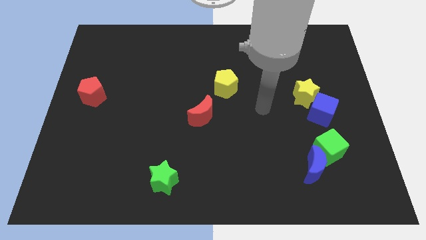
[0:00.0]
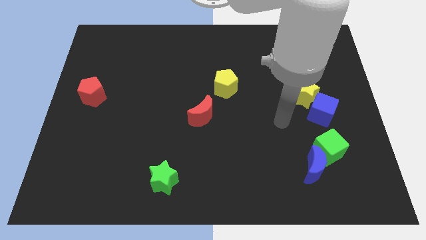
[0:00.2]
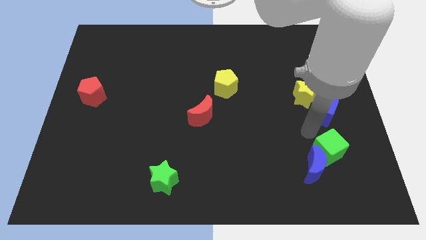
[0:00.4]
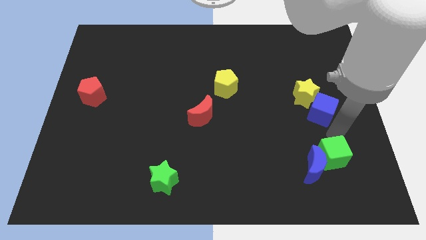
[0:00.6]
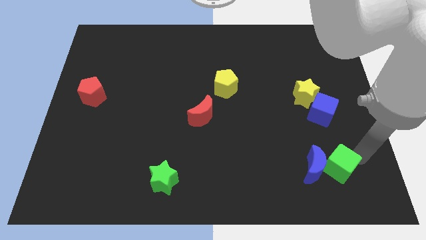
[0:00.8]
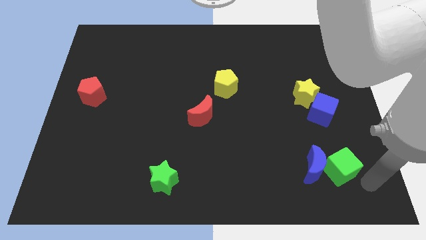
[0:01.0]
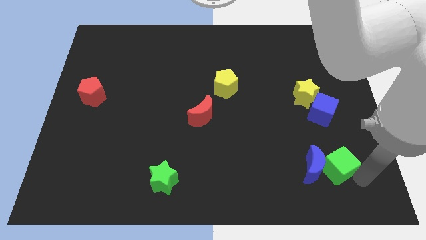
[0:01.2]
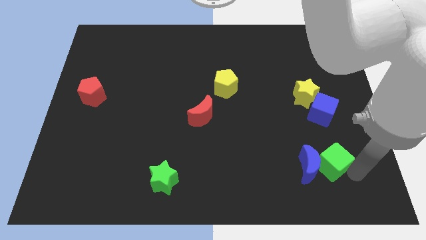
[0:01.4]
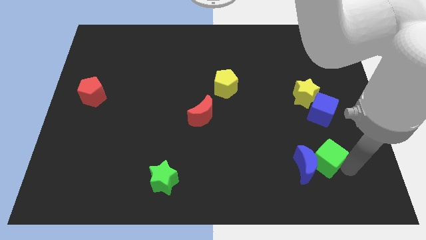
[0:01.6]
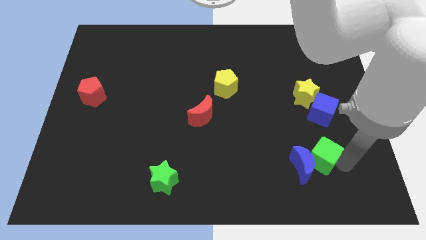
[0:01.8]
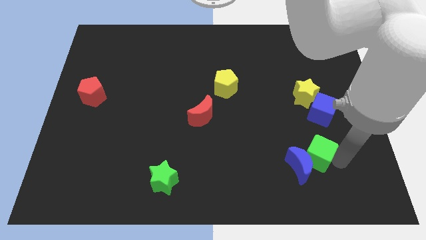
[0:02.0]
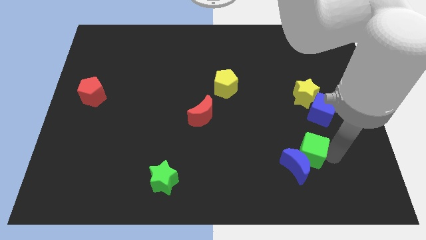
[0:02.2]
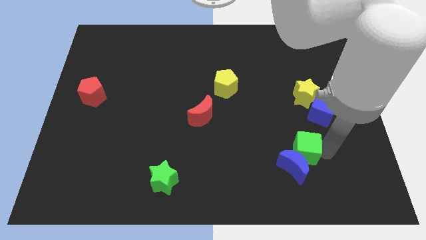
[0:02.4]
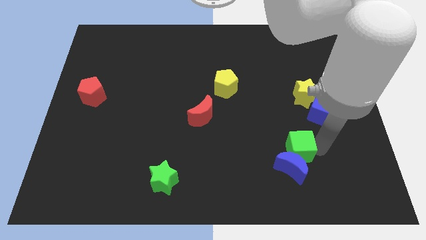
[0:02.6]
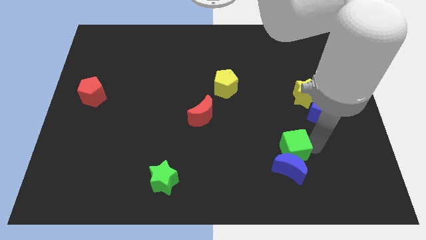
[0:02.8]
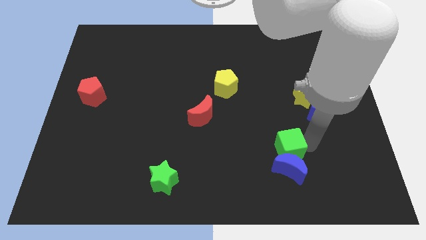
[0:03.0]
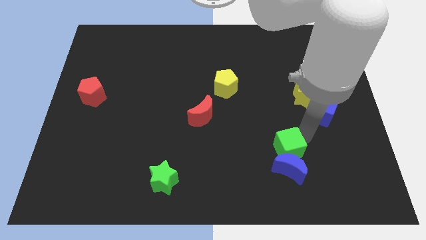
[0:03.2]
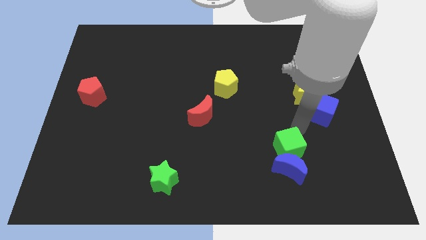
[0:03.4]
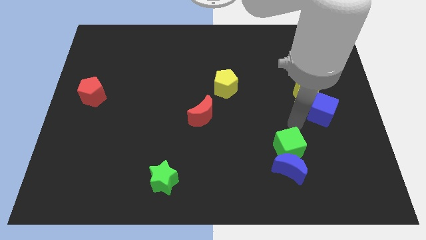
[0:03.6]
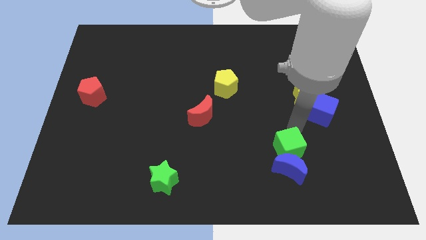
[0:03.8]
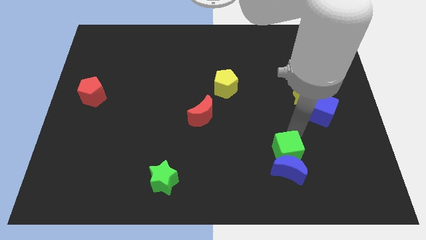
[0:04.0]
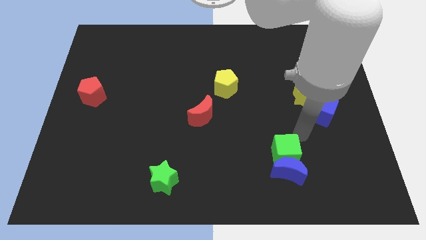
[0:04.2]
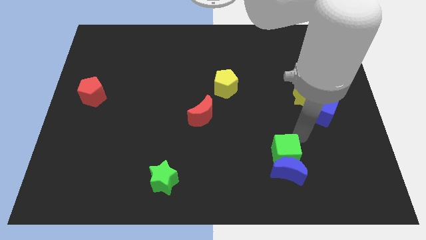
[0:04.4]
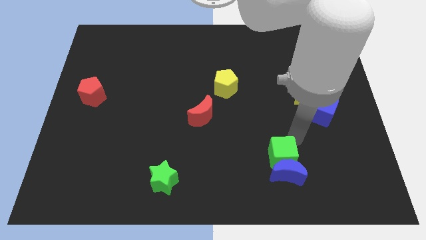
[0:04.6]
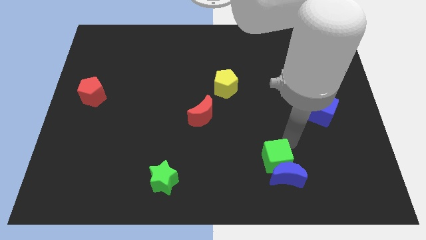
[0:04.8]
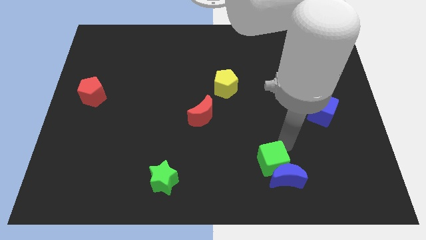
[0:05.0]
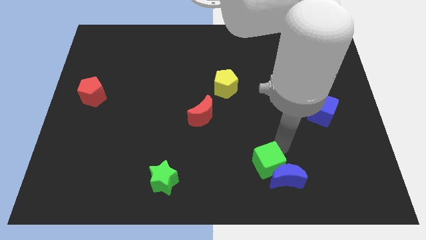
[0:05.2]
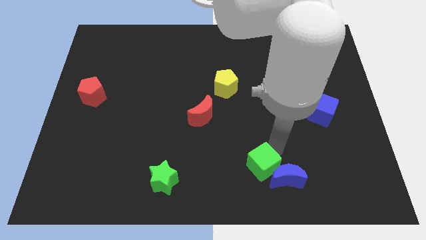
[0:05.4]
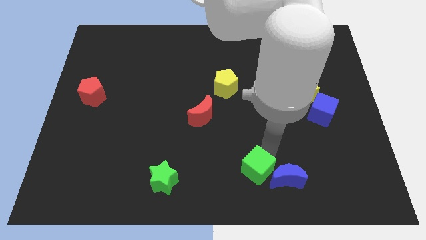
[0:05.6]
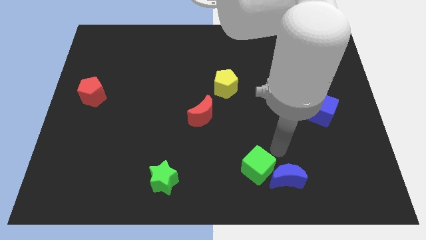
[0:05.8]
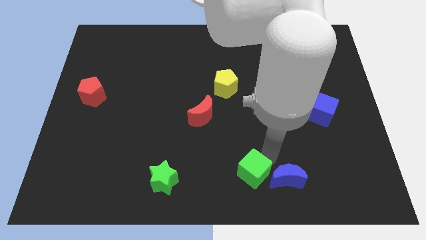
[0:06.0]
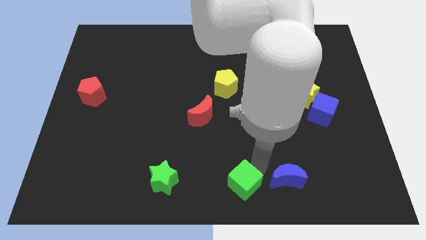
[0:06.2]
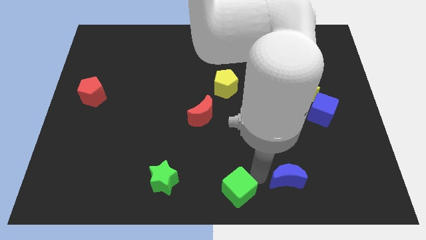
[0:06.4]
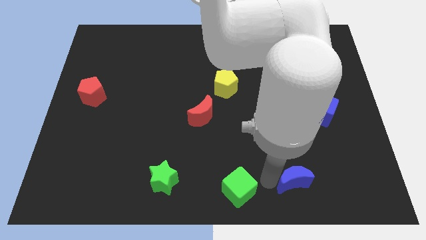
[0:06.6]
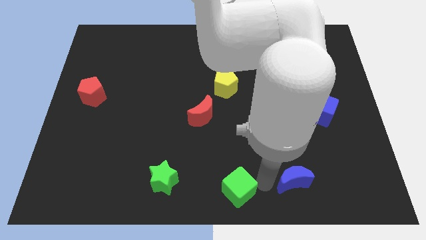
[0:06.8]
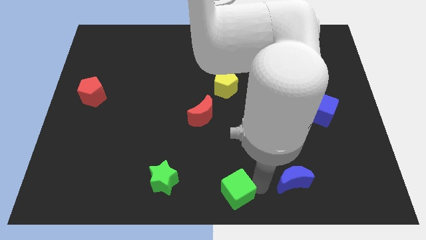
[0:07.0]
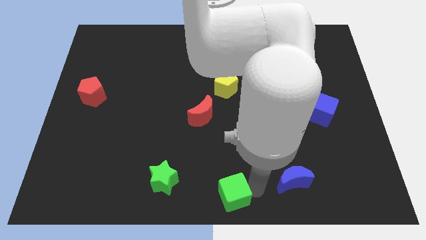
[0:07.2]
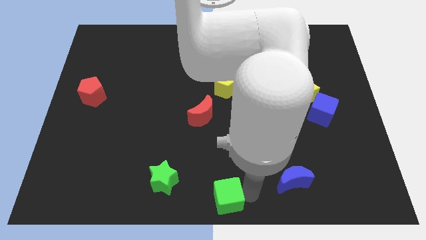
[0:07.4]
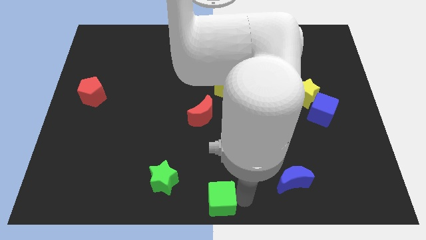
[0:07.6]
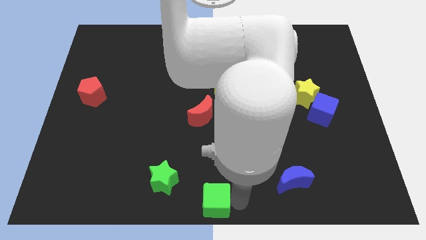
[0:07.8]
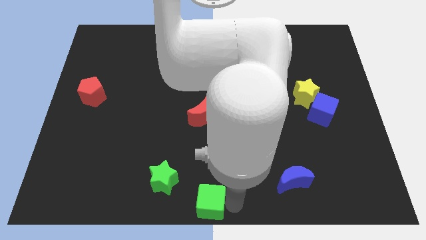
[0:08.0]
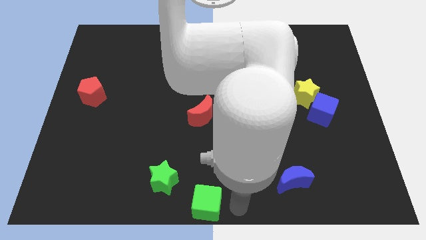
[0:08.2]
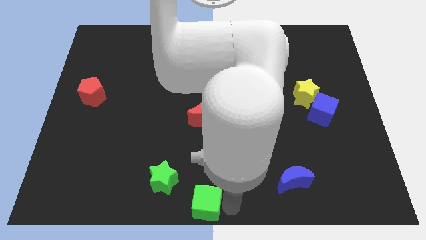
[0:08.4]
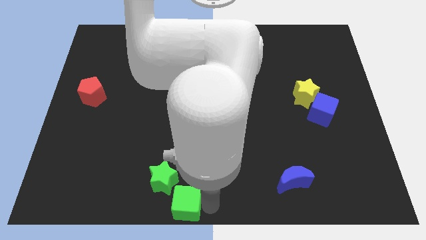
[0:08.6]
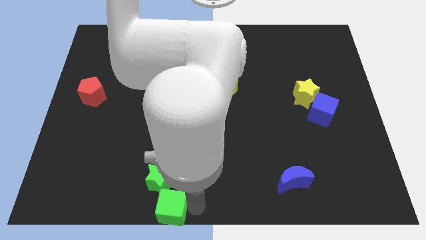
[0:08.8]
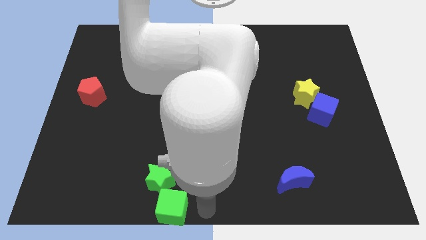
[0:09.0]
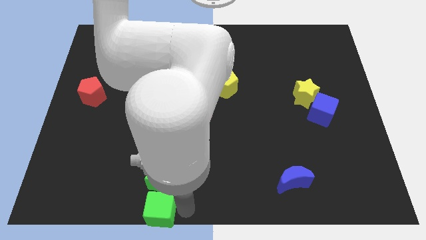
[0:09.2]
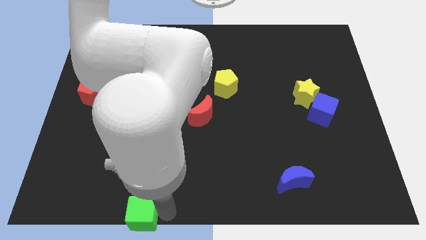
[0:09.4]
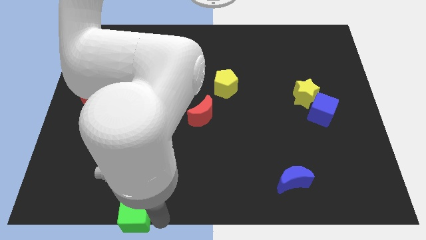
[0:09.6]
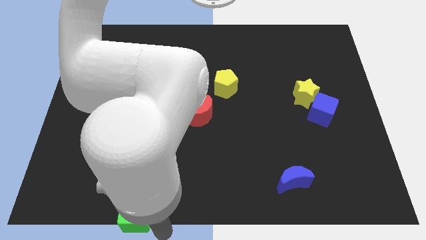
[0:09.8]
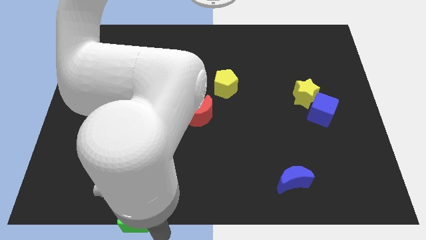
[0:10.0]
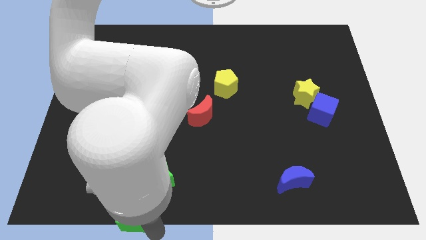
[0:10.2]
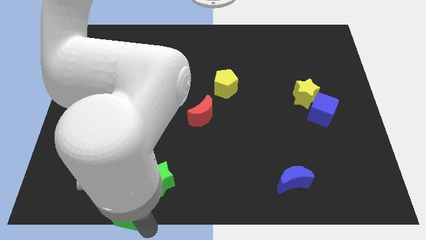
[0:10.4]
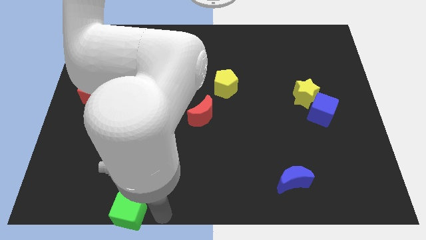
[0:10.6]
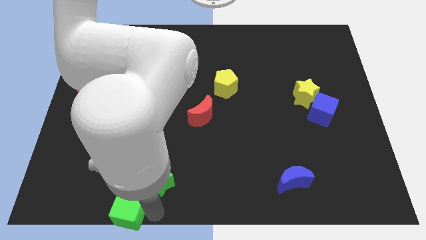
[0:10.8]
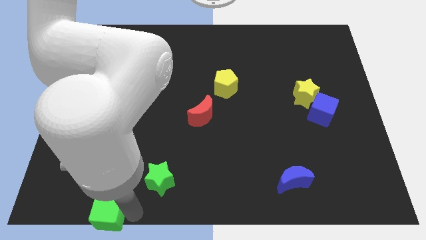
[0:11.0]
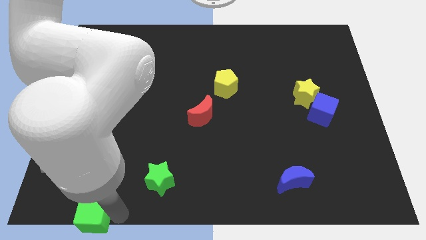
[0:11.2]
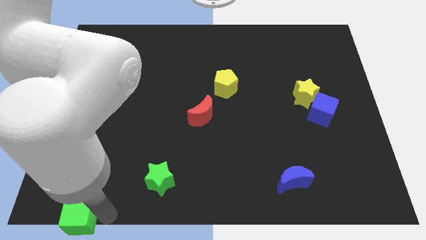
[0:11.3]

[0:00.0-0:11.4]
put the green cube to the bottom left

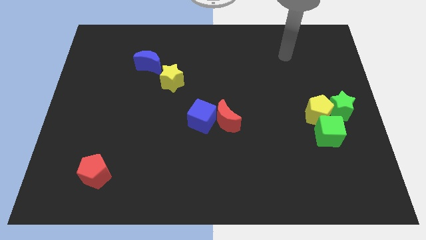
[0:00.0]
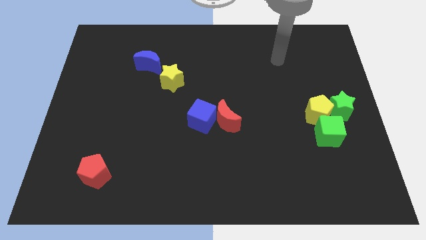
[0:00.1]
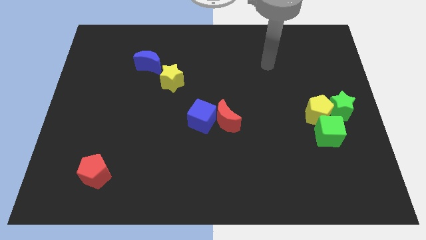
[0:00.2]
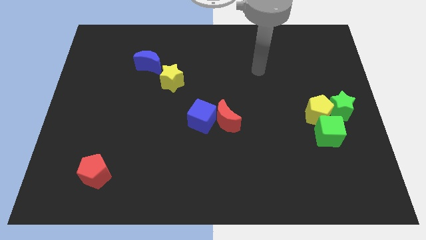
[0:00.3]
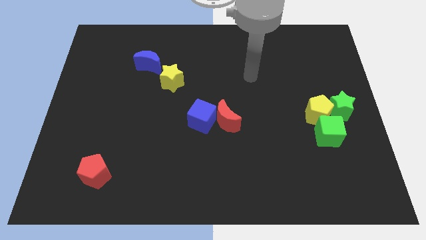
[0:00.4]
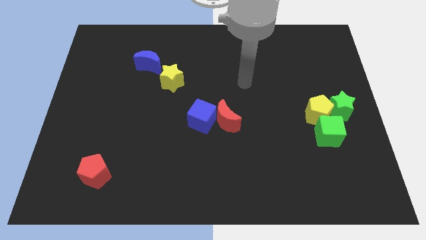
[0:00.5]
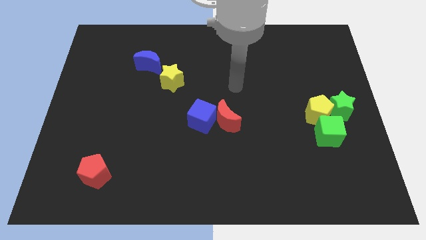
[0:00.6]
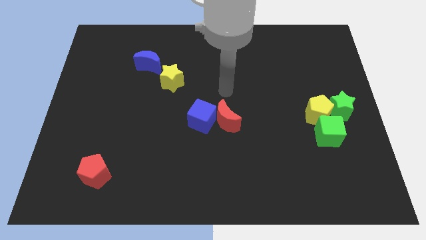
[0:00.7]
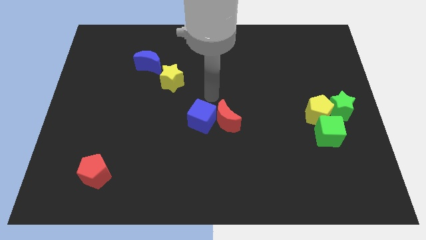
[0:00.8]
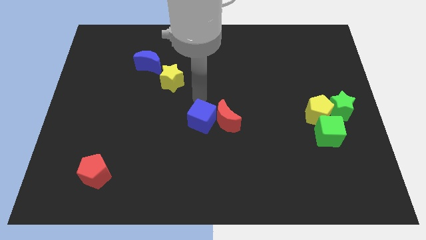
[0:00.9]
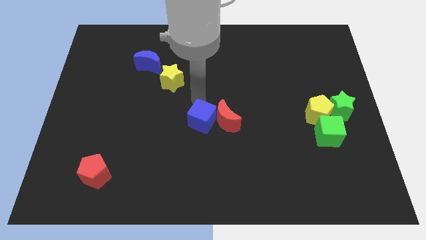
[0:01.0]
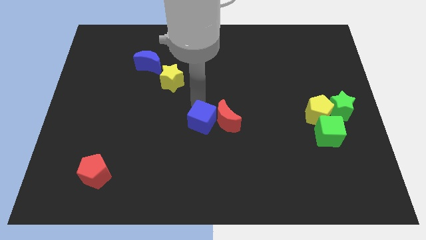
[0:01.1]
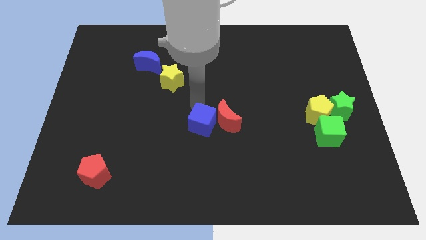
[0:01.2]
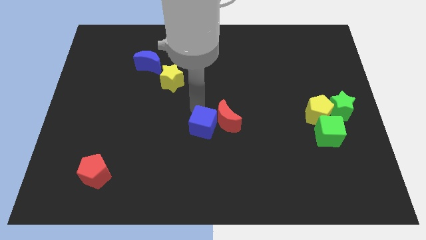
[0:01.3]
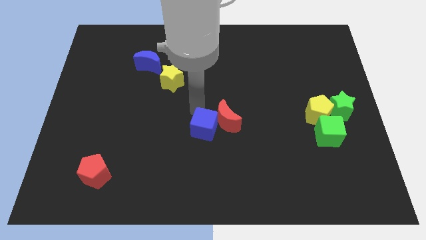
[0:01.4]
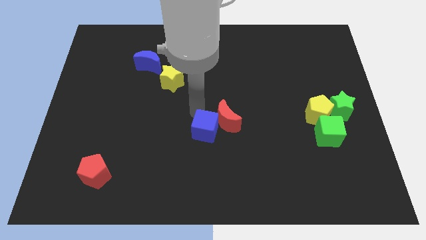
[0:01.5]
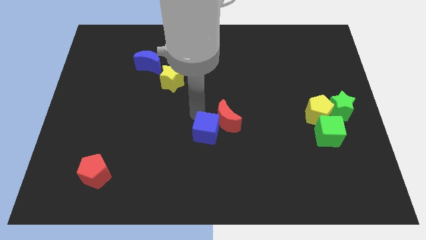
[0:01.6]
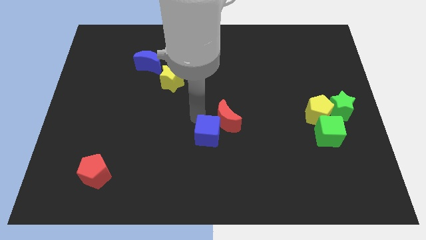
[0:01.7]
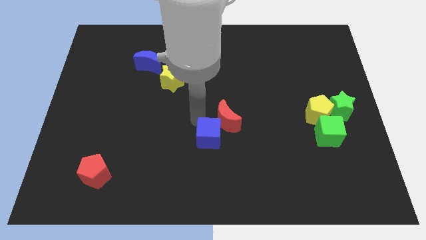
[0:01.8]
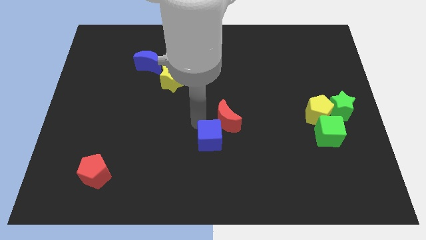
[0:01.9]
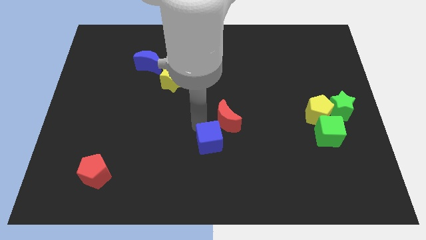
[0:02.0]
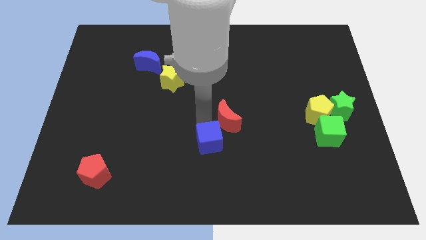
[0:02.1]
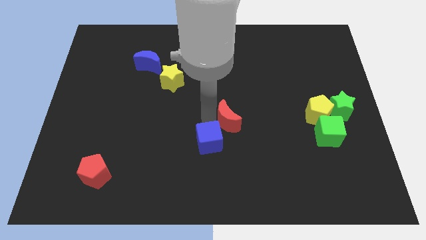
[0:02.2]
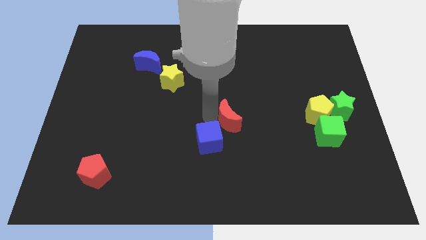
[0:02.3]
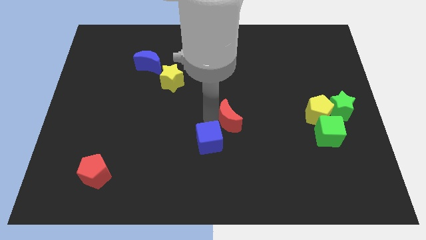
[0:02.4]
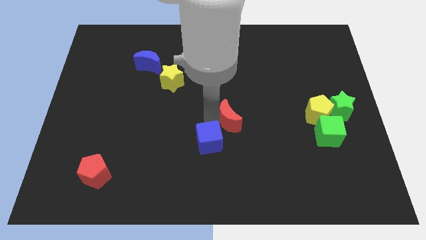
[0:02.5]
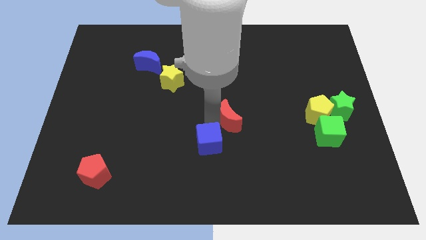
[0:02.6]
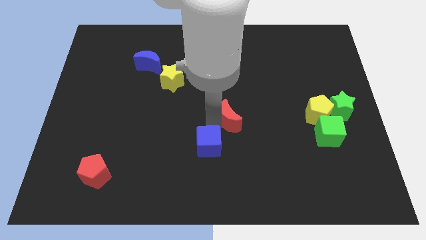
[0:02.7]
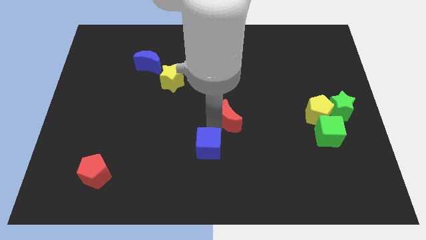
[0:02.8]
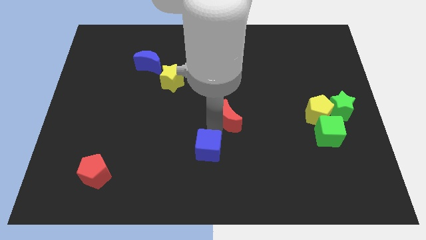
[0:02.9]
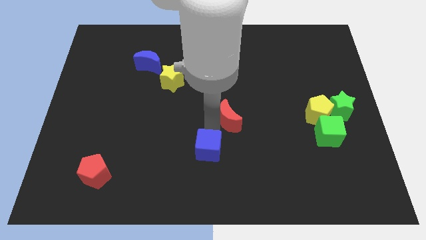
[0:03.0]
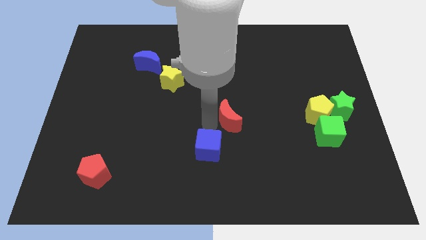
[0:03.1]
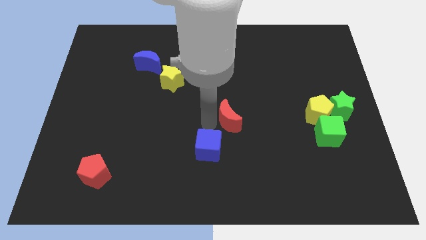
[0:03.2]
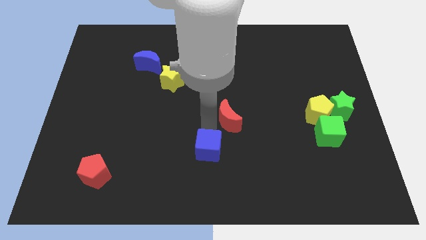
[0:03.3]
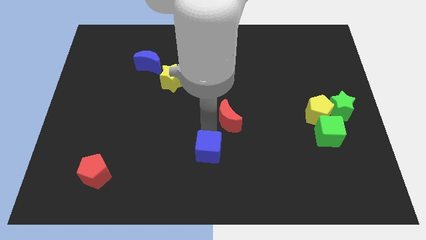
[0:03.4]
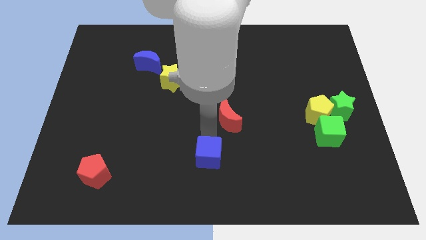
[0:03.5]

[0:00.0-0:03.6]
put the blue cube to the bottom
